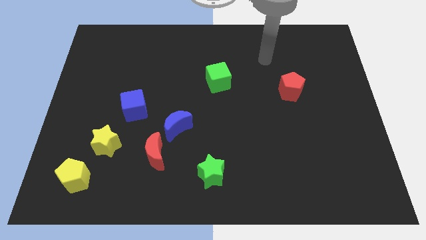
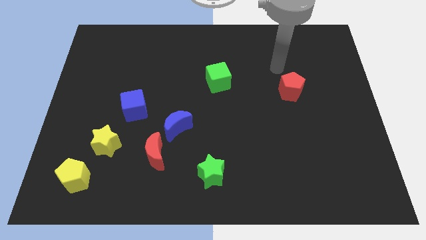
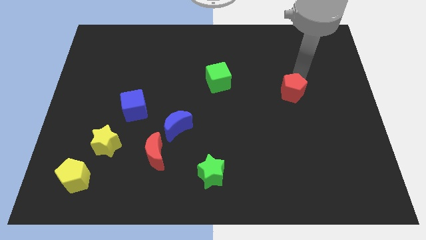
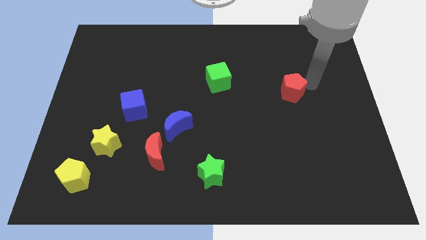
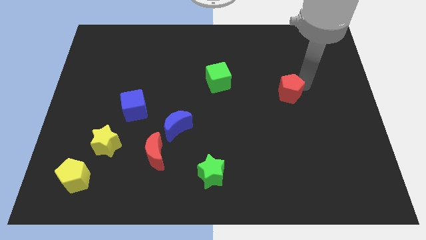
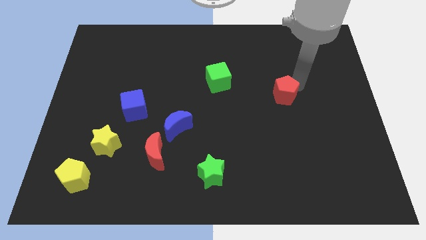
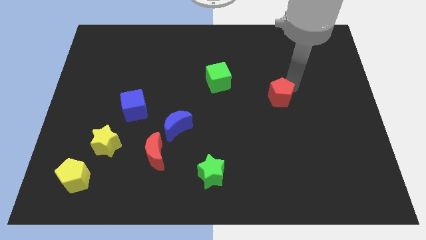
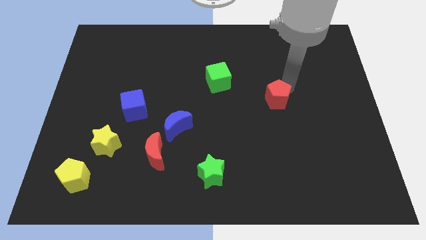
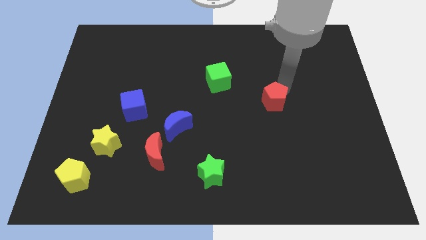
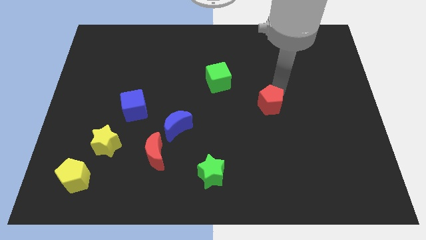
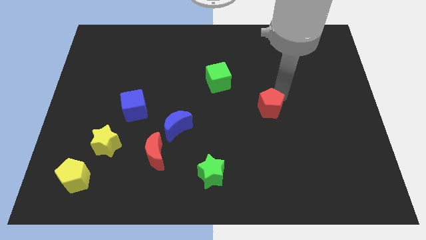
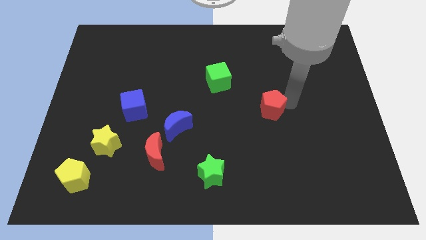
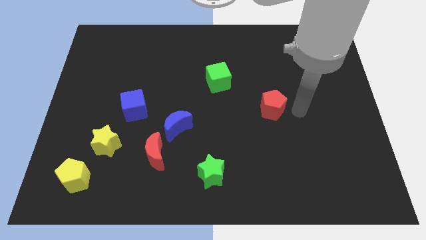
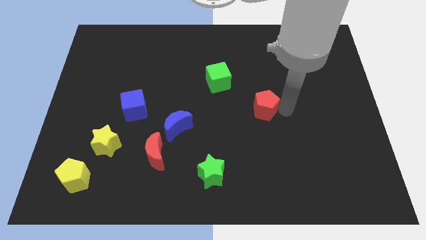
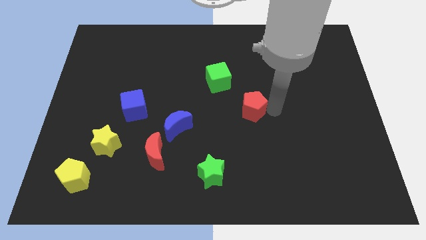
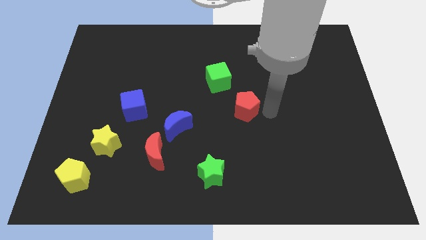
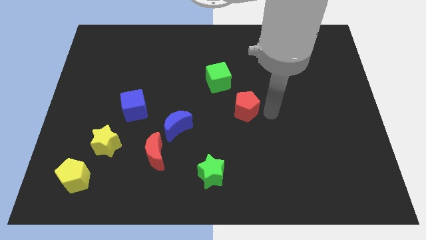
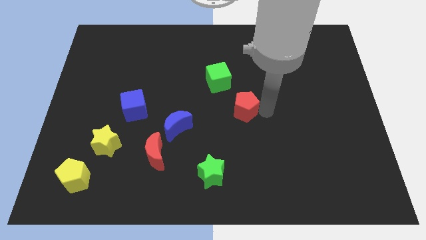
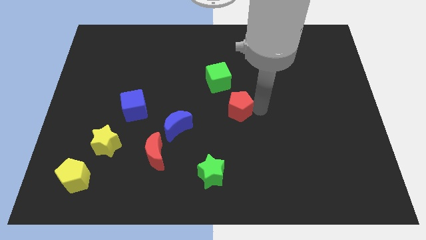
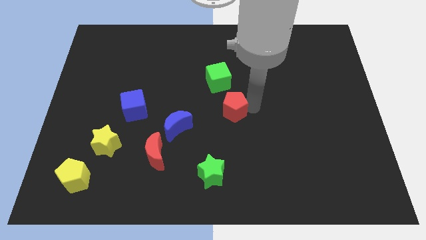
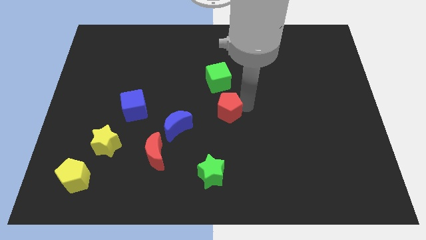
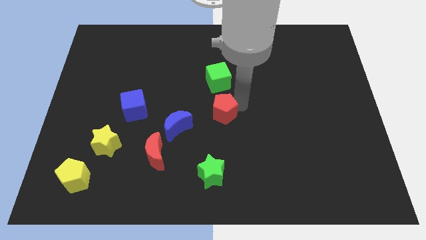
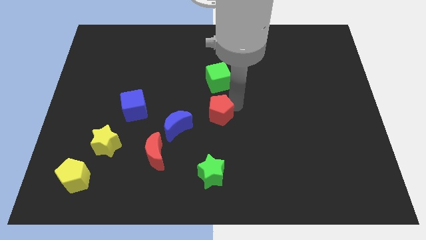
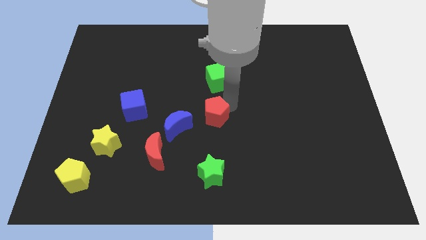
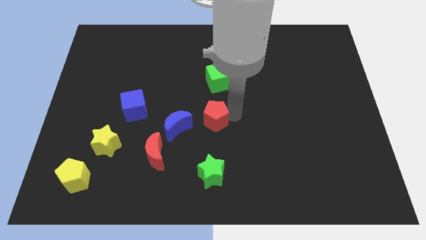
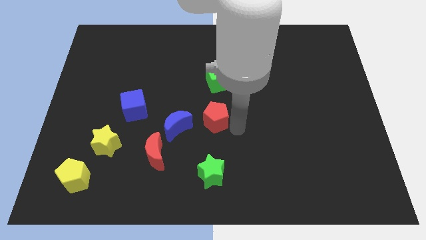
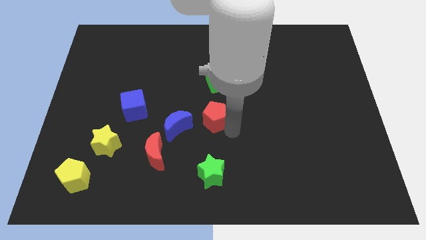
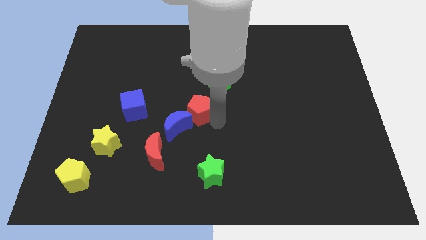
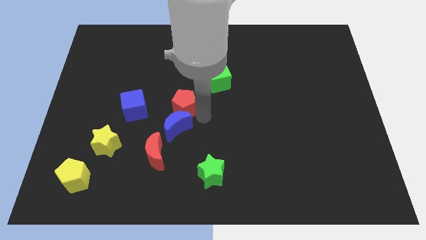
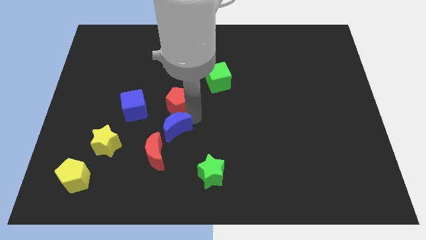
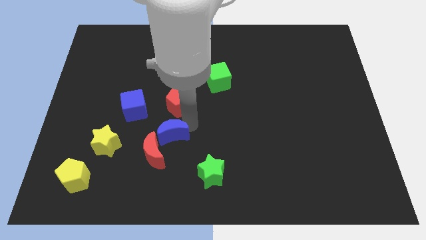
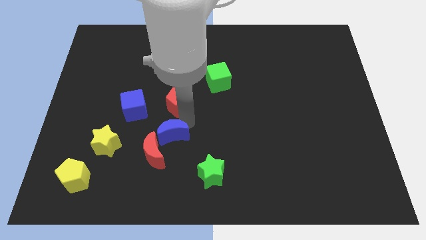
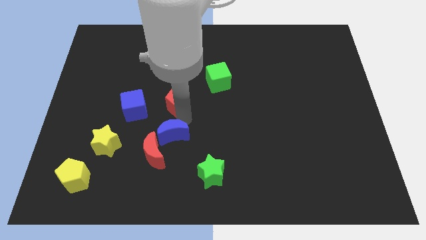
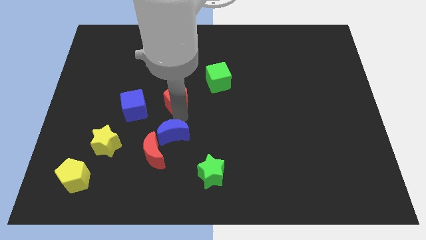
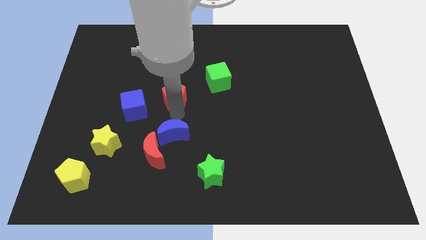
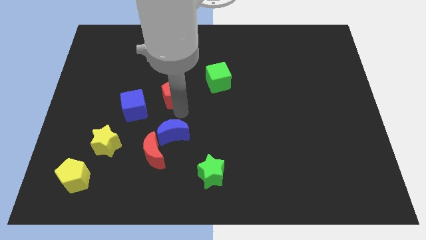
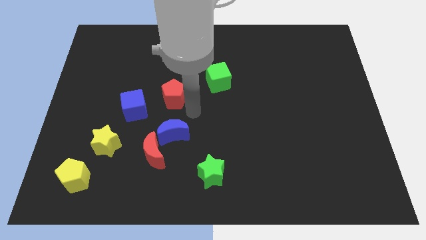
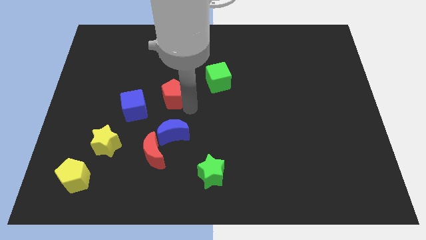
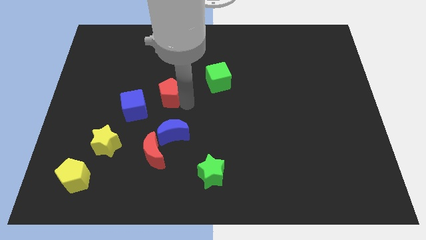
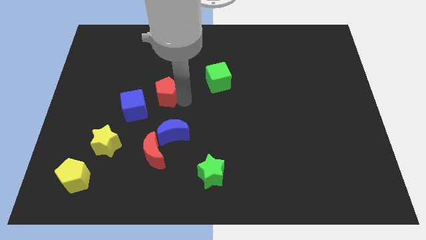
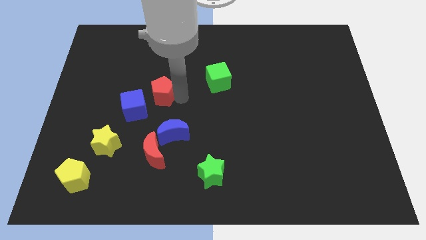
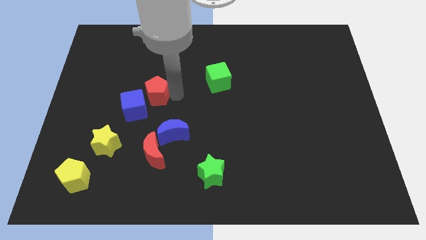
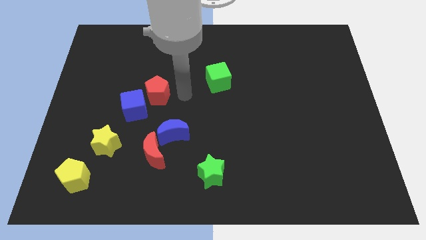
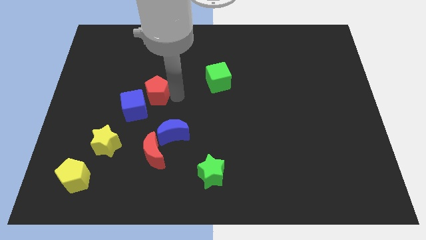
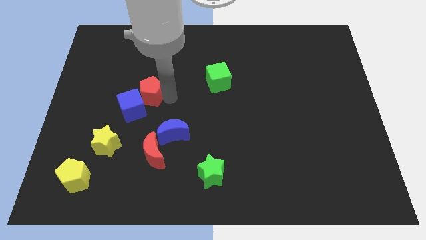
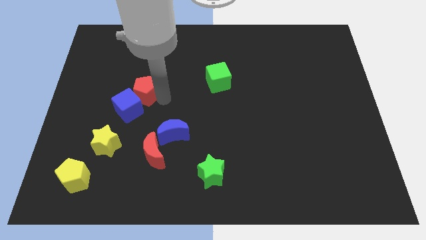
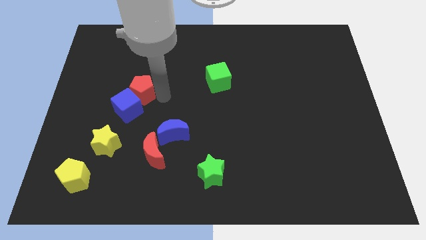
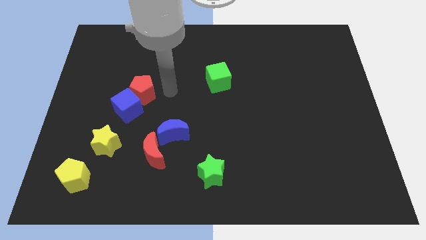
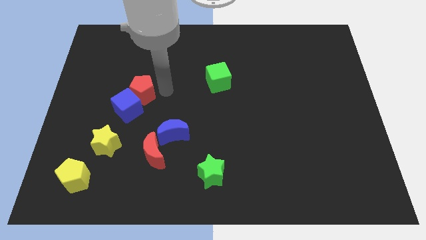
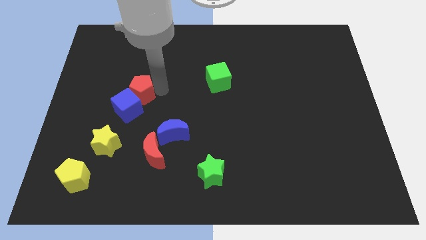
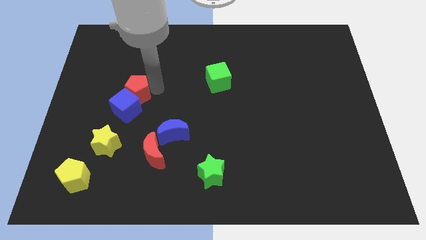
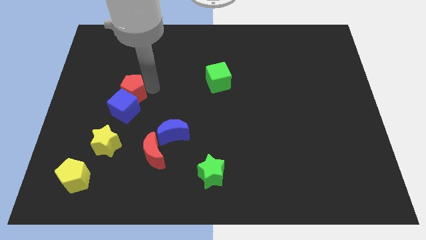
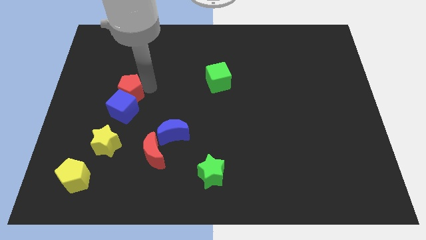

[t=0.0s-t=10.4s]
put the red pentagon above the yellow star

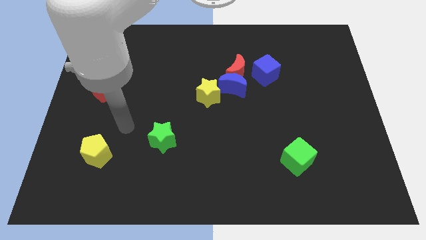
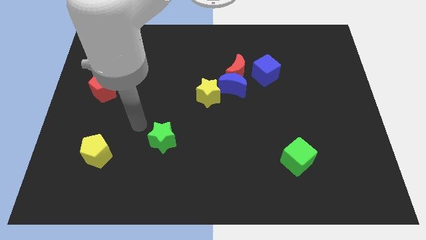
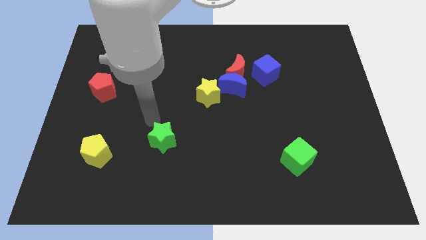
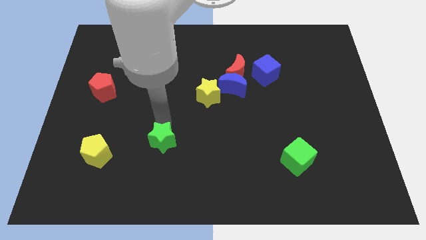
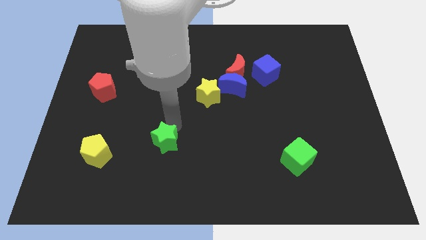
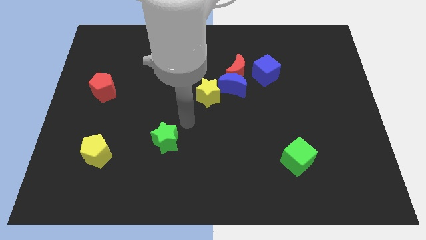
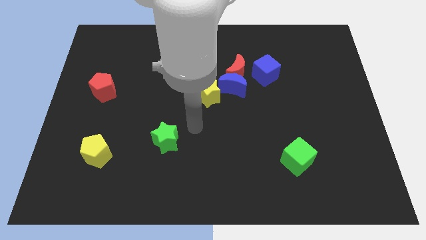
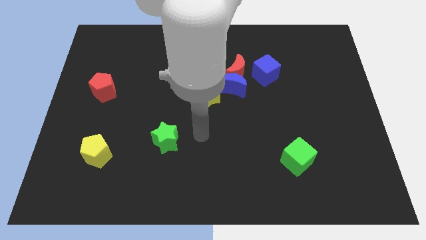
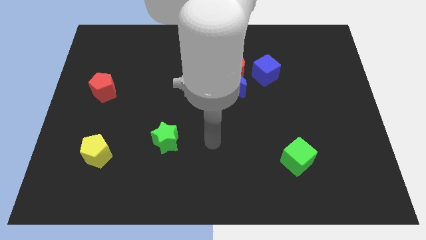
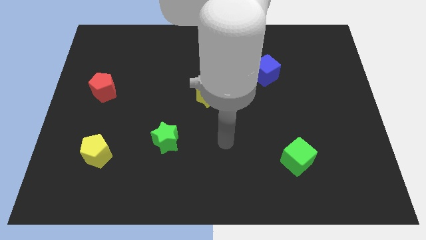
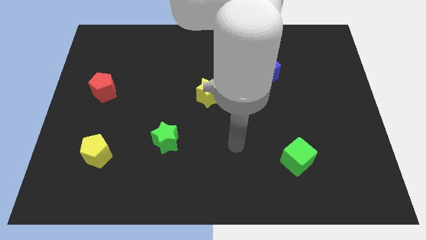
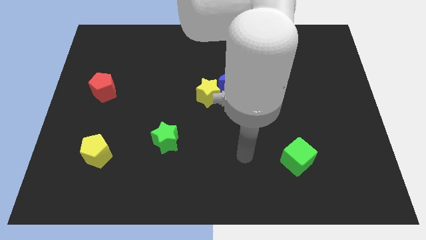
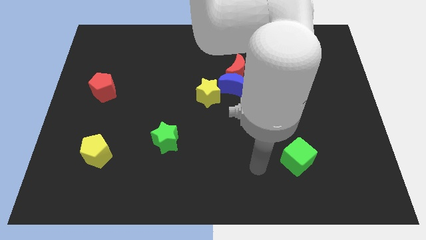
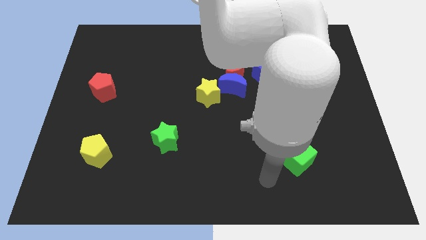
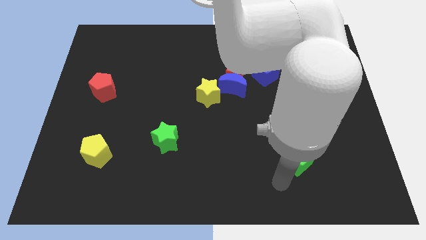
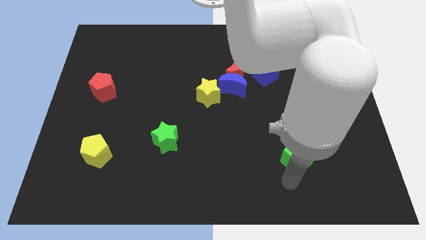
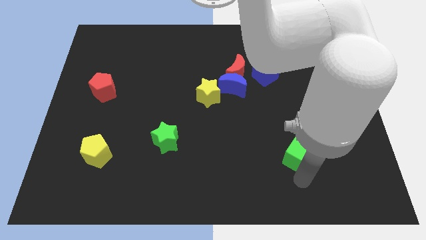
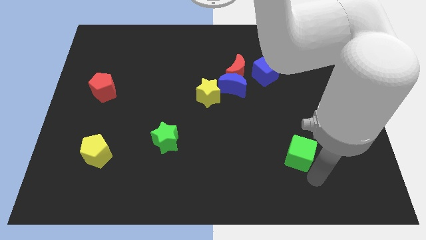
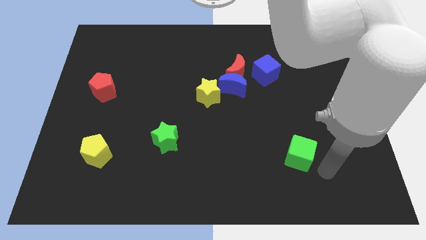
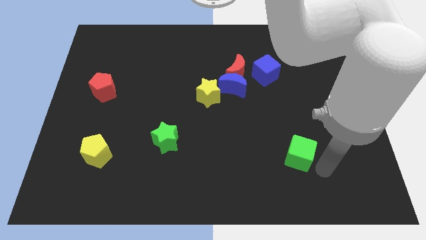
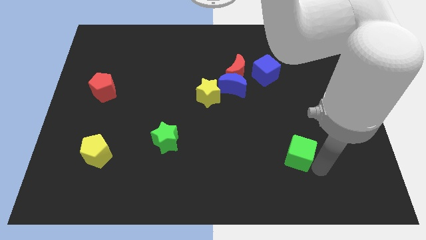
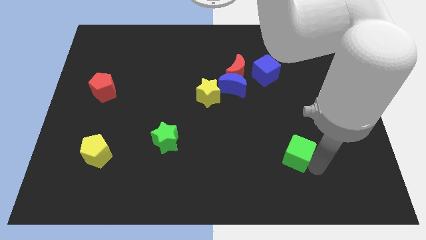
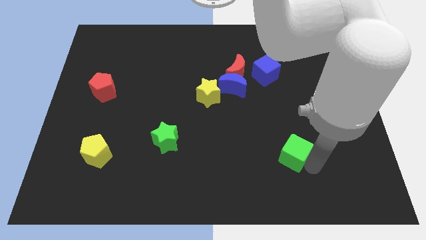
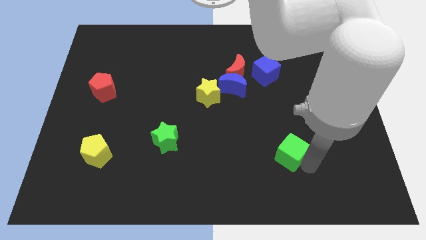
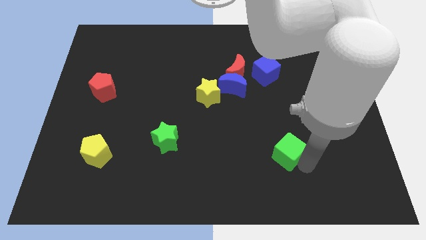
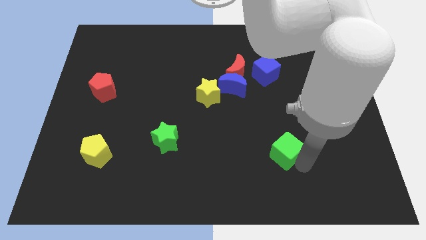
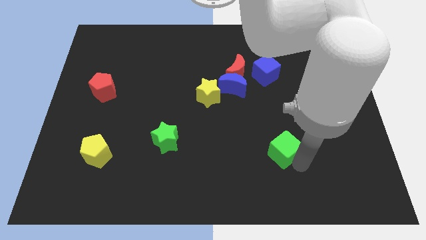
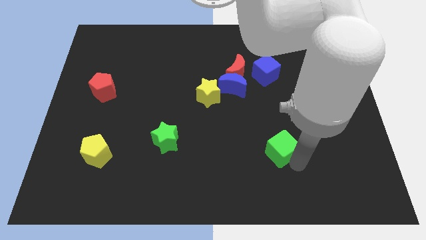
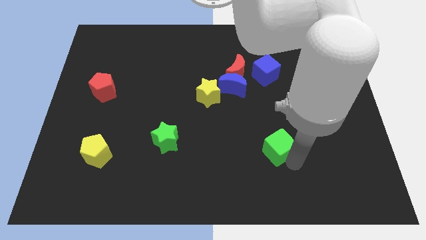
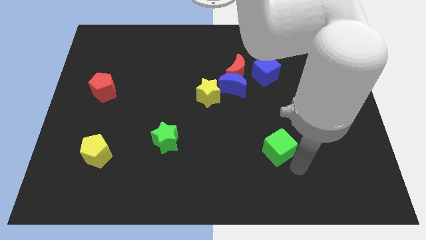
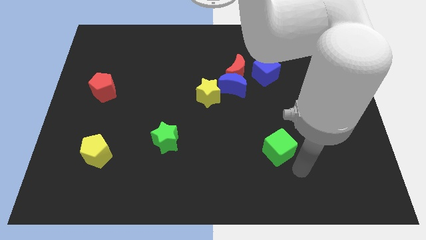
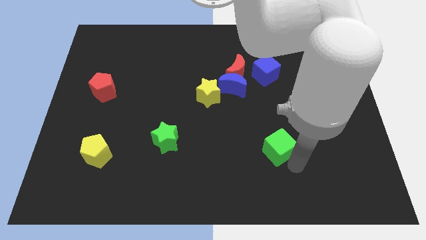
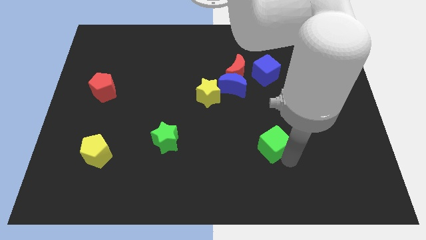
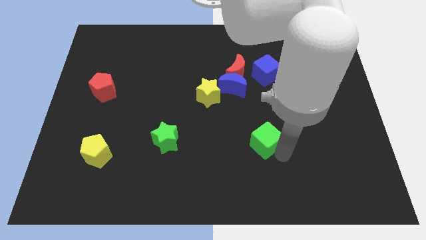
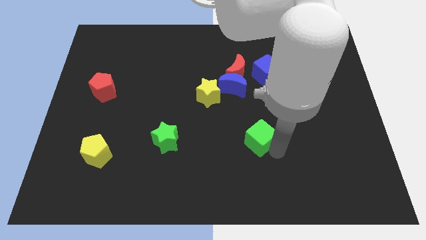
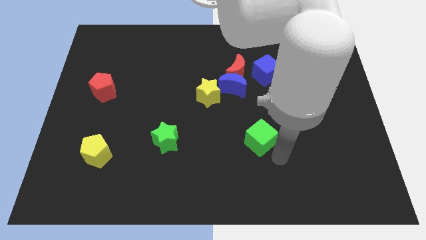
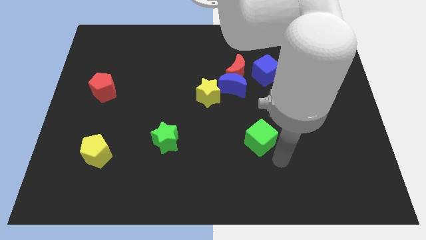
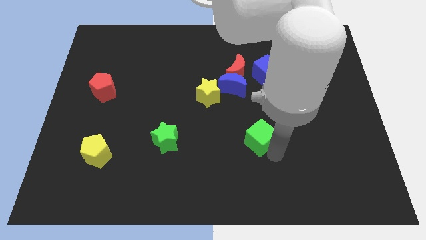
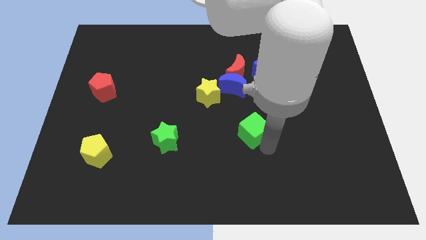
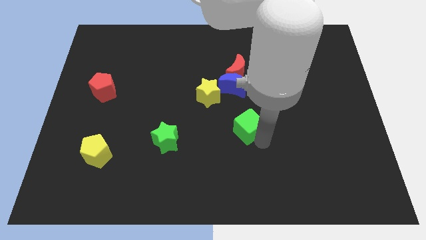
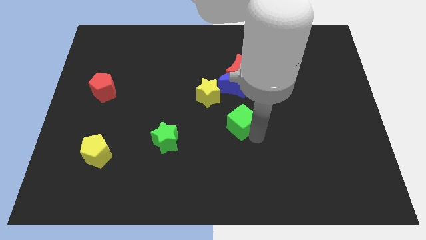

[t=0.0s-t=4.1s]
push the green cube to the bottom right of the yellow star
